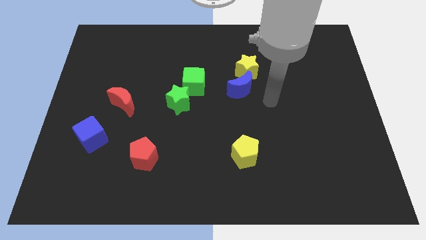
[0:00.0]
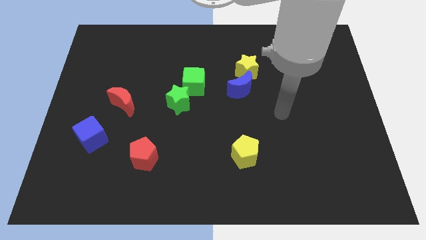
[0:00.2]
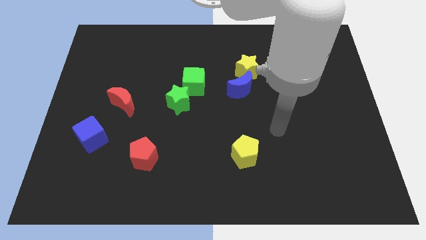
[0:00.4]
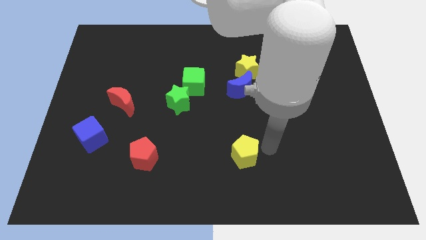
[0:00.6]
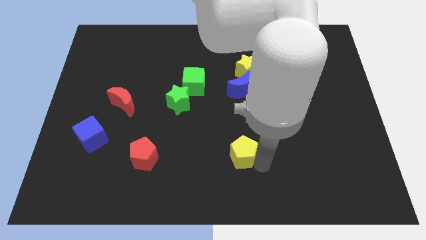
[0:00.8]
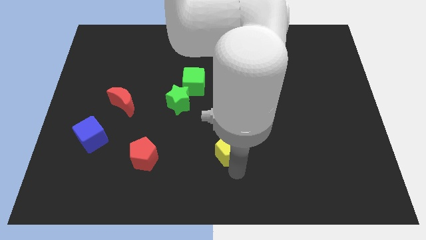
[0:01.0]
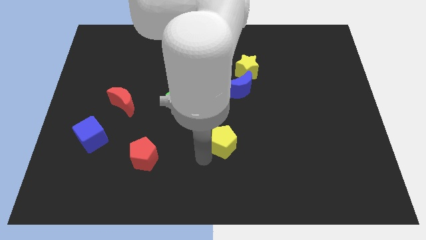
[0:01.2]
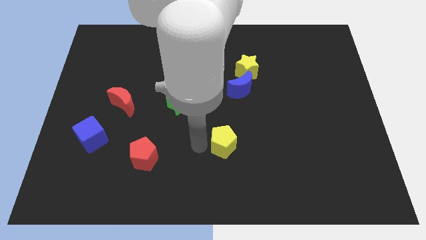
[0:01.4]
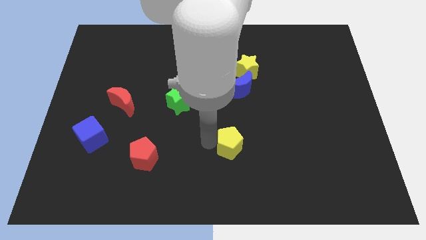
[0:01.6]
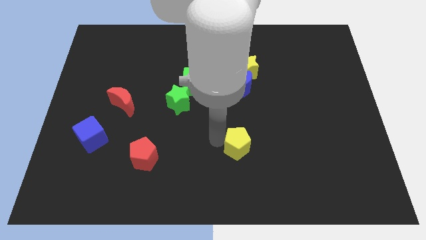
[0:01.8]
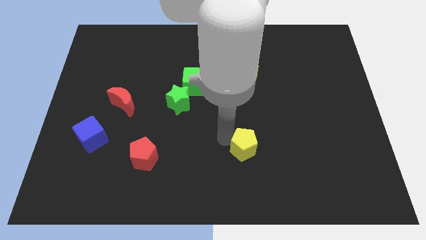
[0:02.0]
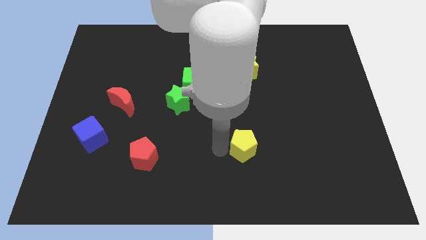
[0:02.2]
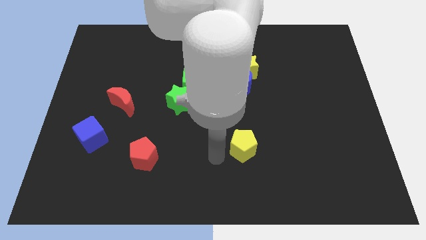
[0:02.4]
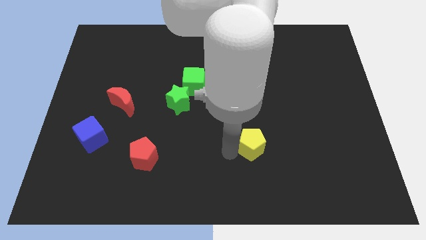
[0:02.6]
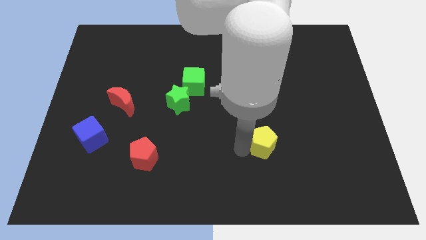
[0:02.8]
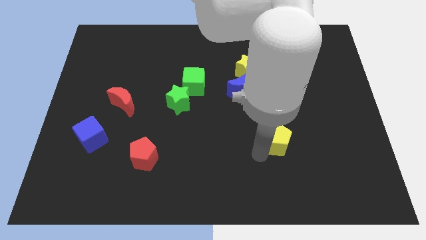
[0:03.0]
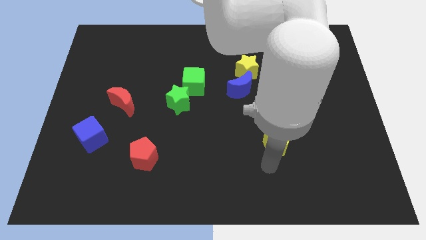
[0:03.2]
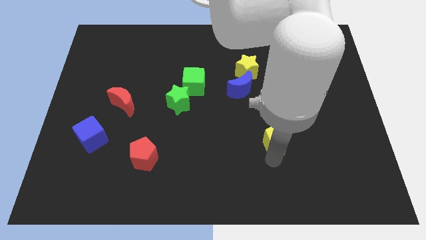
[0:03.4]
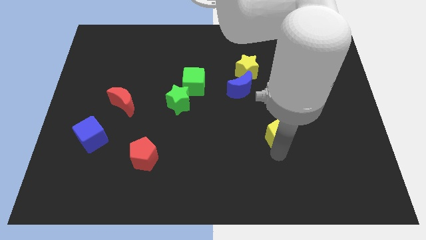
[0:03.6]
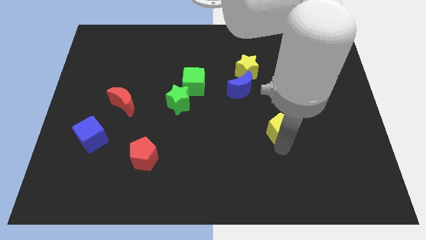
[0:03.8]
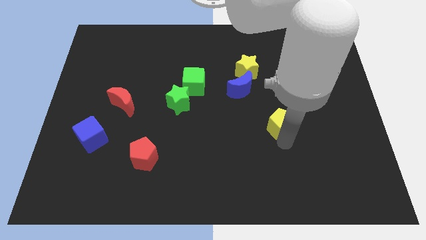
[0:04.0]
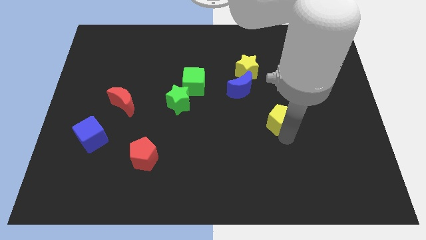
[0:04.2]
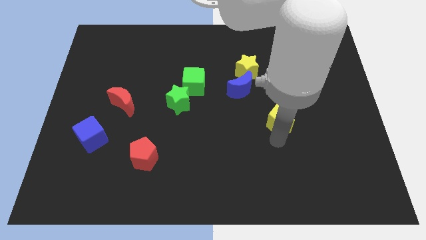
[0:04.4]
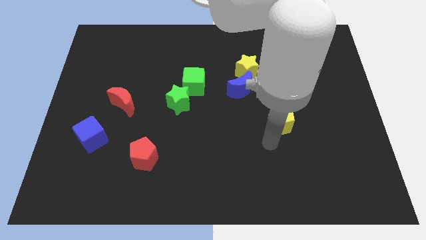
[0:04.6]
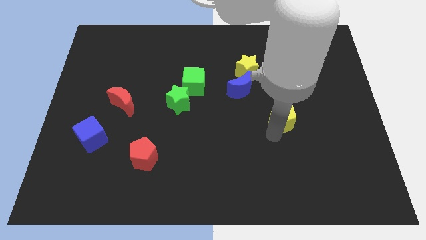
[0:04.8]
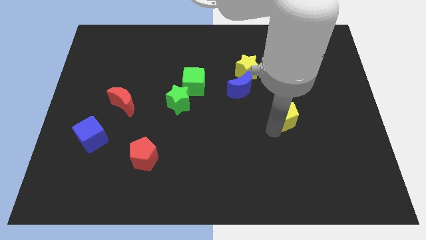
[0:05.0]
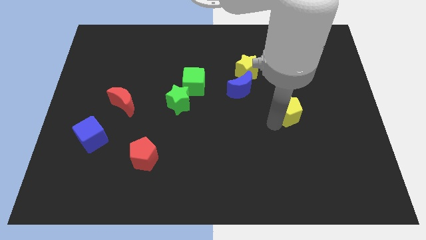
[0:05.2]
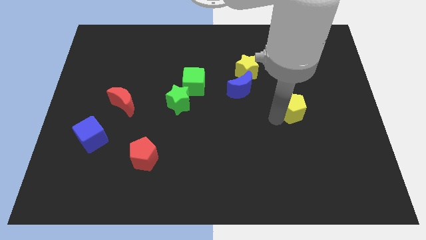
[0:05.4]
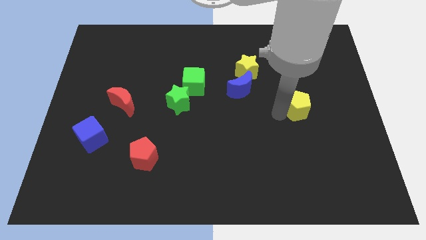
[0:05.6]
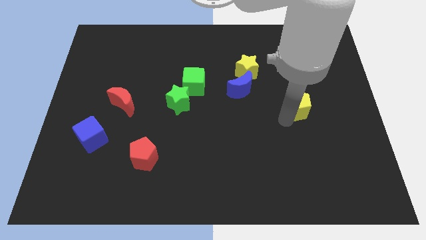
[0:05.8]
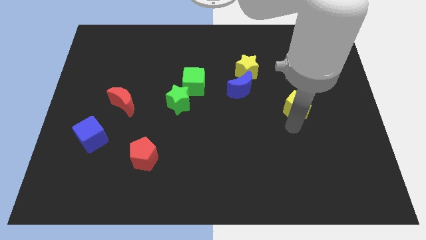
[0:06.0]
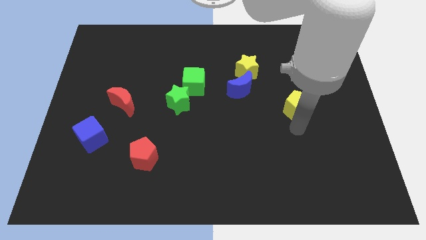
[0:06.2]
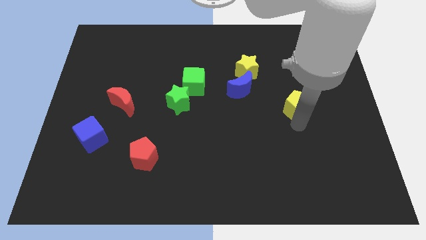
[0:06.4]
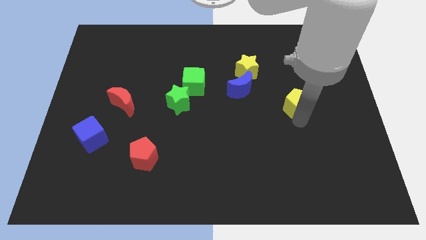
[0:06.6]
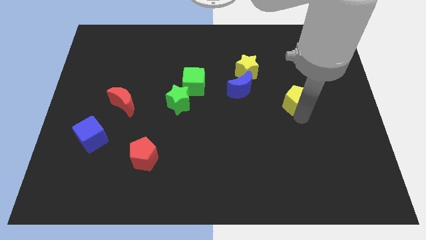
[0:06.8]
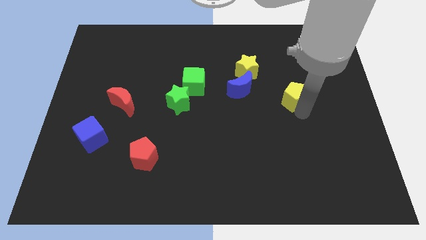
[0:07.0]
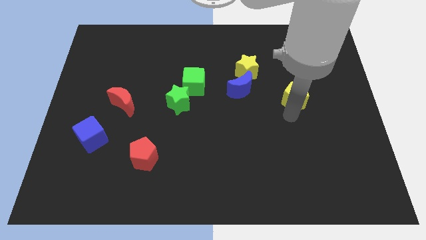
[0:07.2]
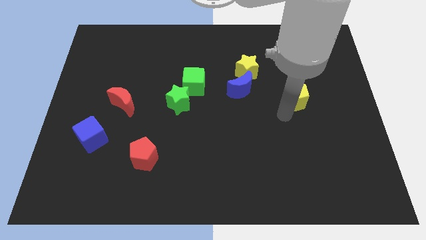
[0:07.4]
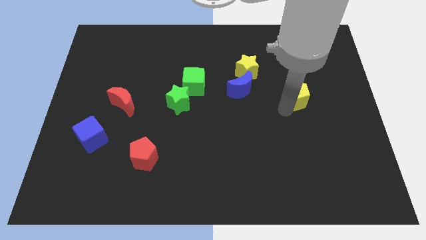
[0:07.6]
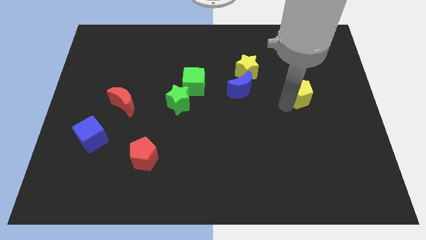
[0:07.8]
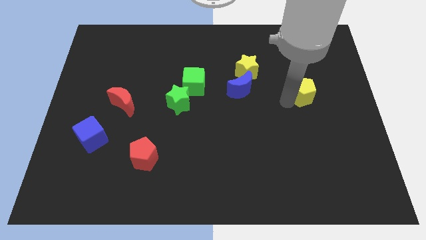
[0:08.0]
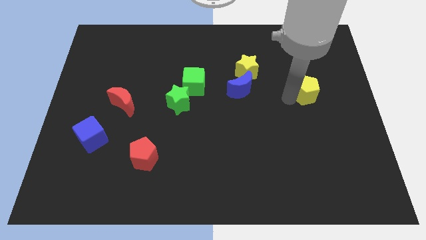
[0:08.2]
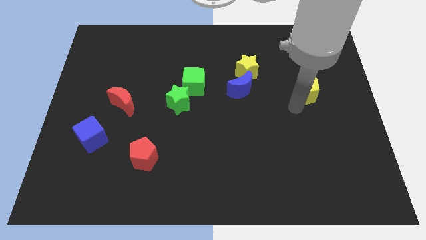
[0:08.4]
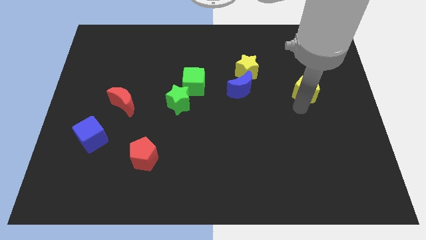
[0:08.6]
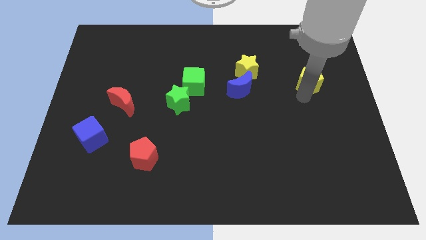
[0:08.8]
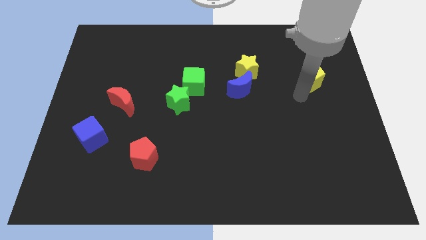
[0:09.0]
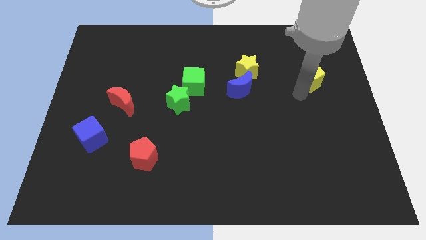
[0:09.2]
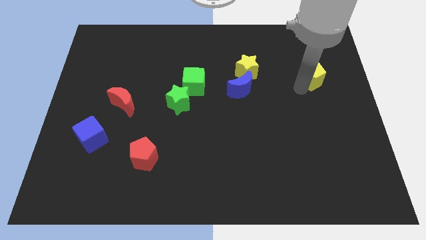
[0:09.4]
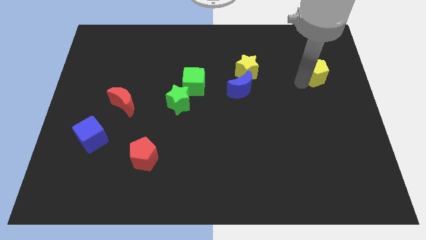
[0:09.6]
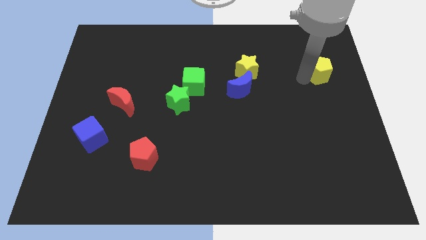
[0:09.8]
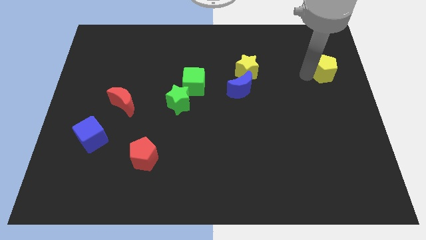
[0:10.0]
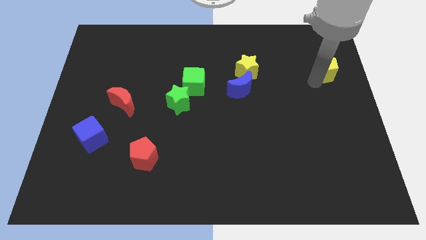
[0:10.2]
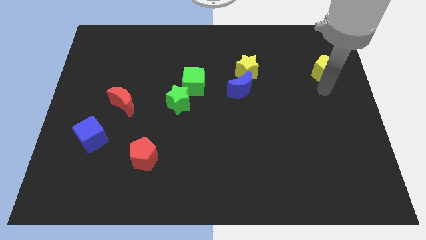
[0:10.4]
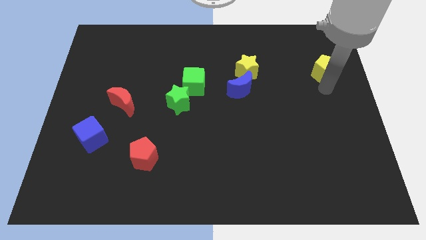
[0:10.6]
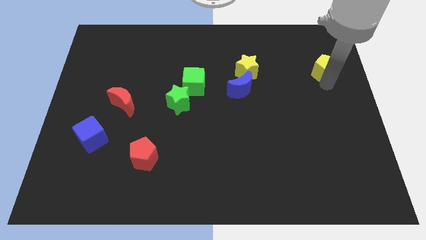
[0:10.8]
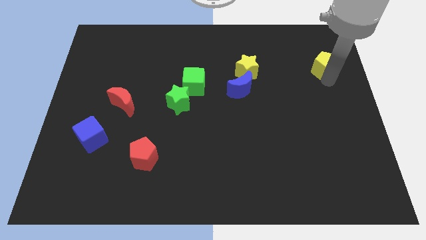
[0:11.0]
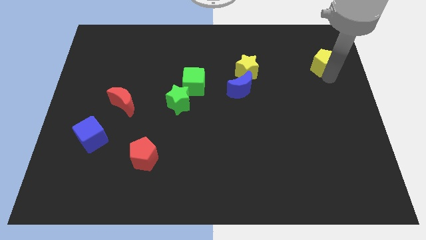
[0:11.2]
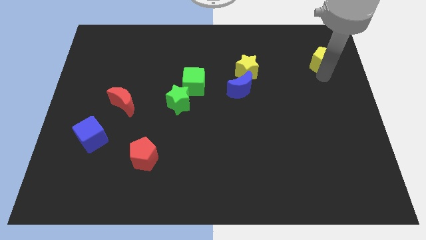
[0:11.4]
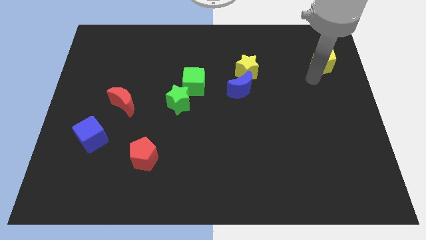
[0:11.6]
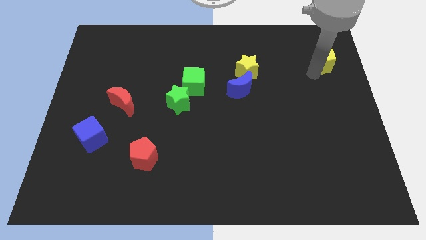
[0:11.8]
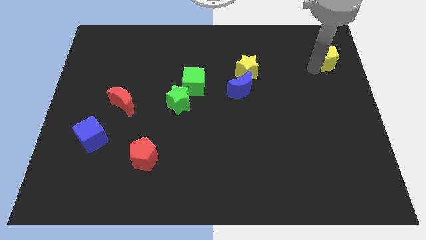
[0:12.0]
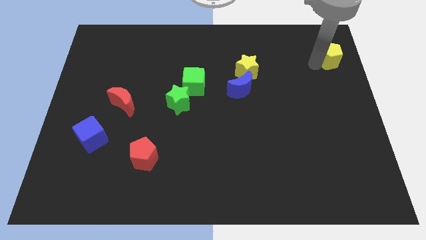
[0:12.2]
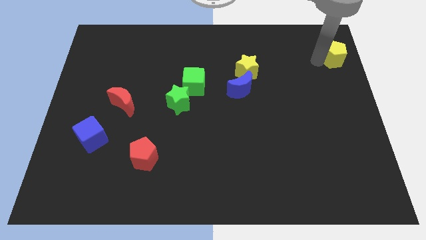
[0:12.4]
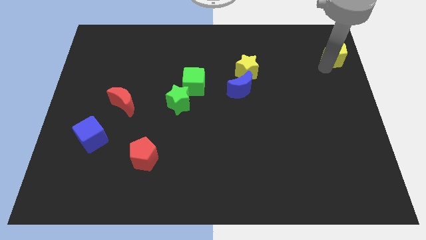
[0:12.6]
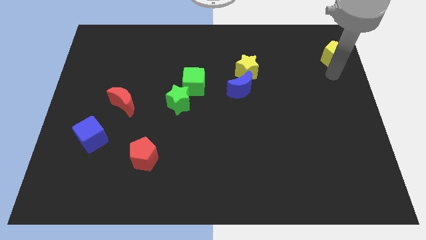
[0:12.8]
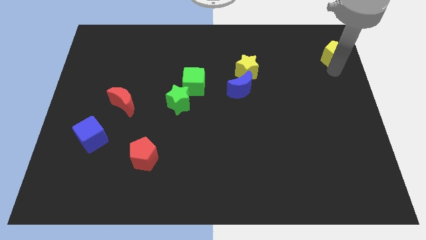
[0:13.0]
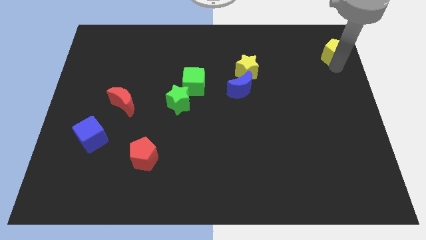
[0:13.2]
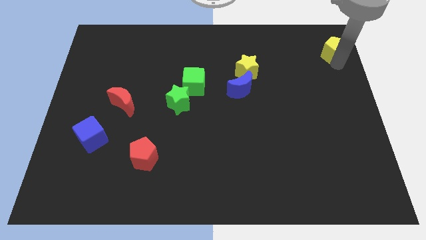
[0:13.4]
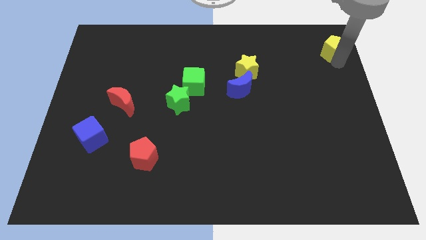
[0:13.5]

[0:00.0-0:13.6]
move the yellow pentagon to the top right corner
